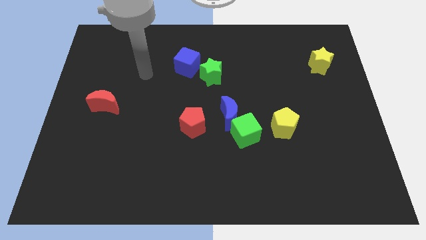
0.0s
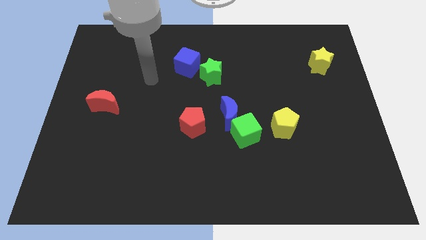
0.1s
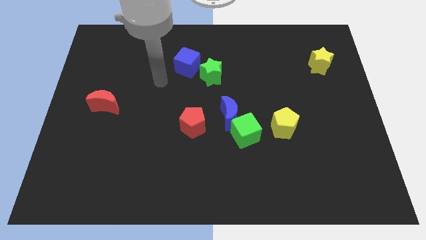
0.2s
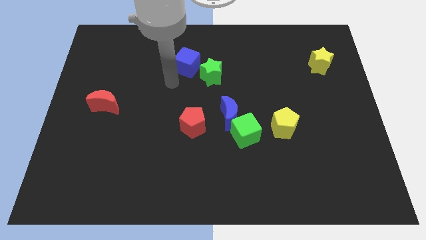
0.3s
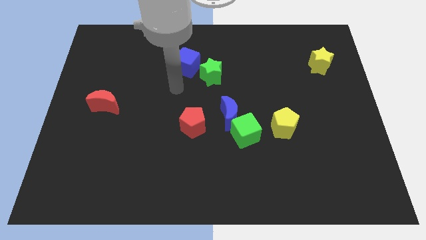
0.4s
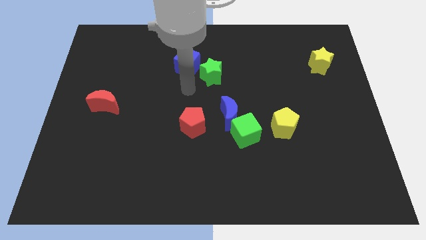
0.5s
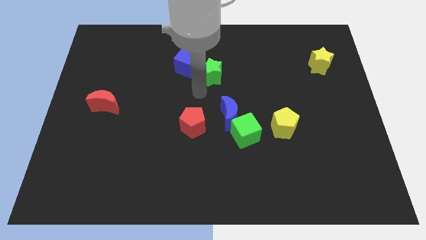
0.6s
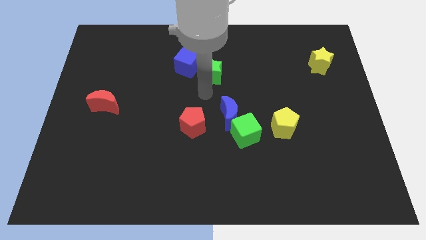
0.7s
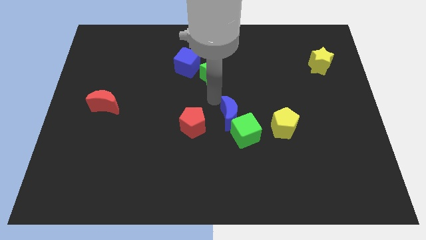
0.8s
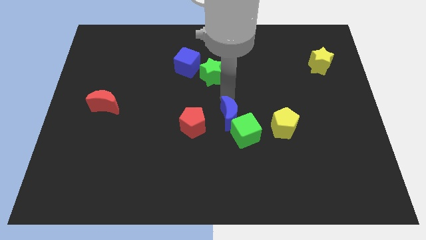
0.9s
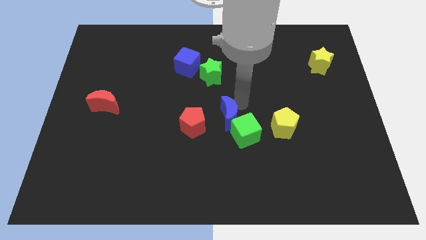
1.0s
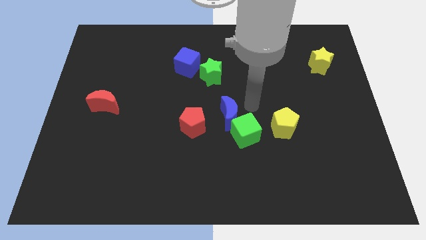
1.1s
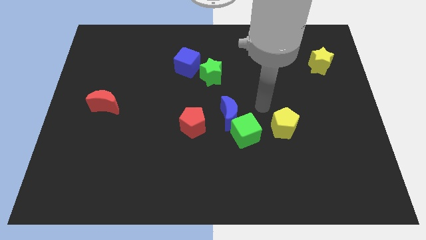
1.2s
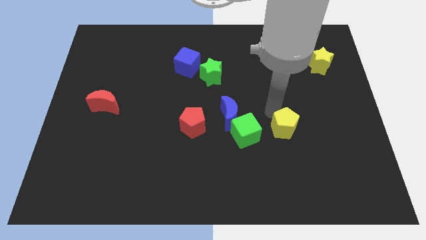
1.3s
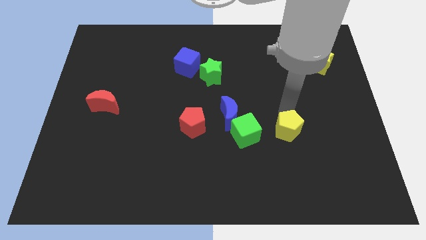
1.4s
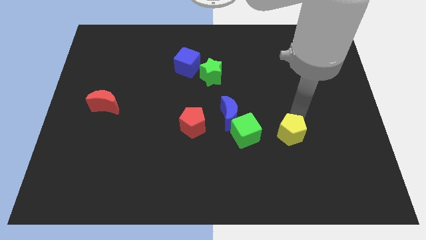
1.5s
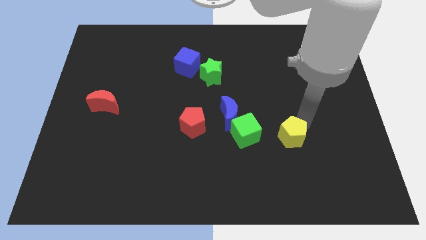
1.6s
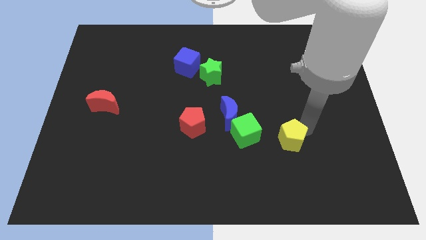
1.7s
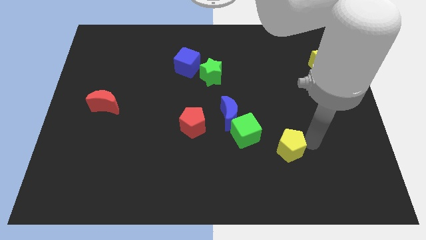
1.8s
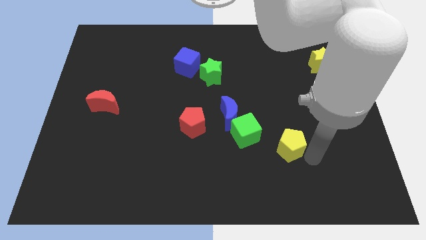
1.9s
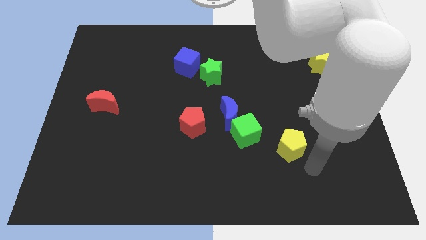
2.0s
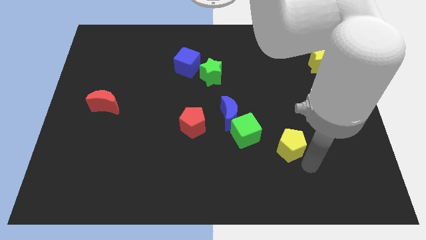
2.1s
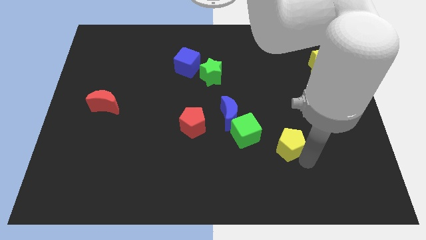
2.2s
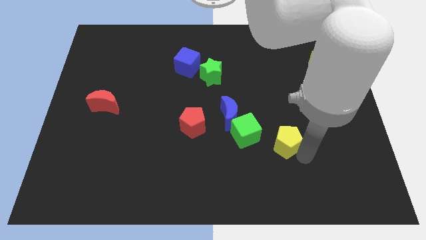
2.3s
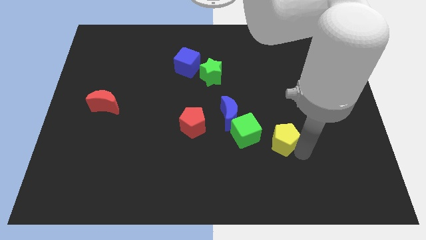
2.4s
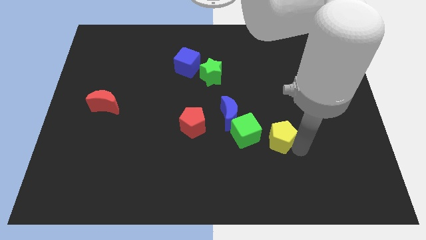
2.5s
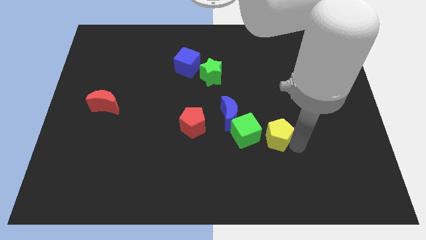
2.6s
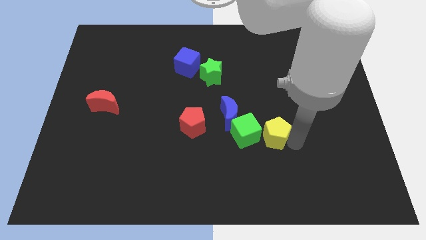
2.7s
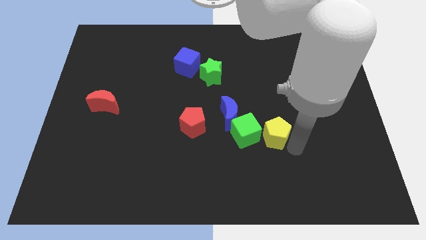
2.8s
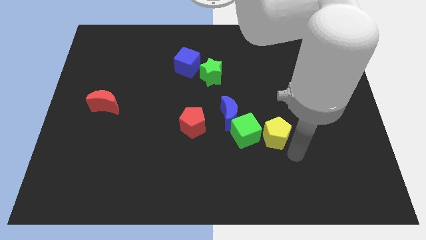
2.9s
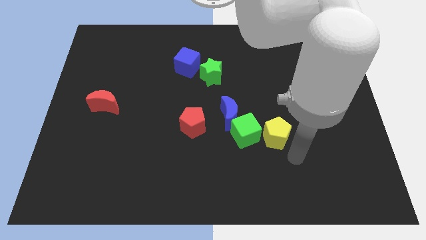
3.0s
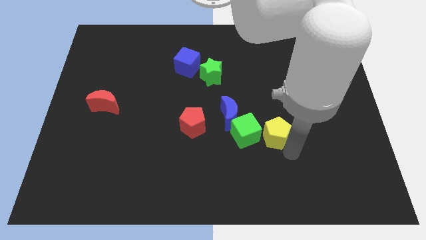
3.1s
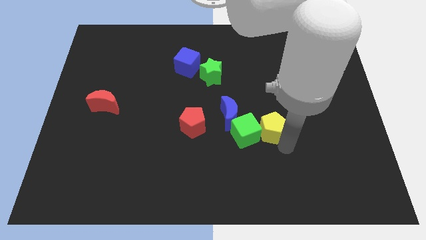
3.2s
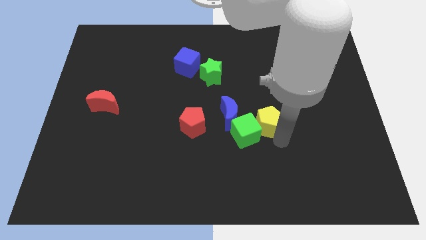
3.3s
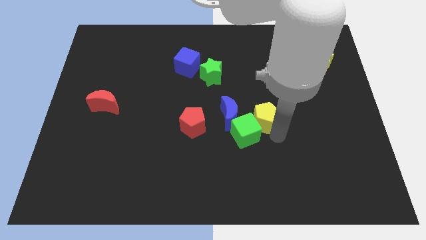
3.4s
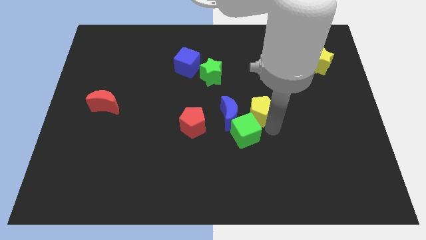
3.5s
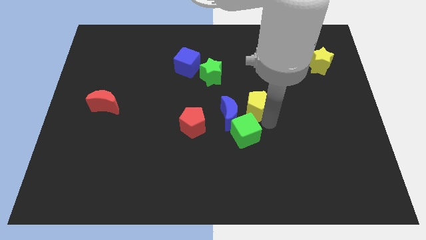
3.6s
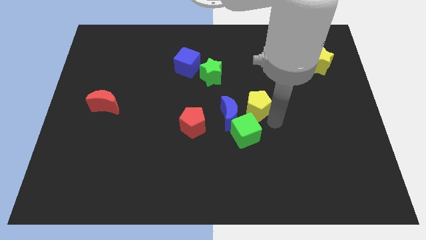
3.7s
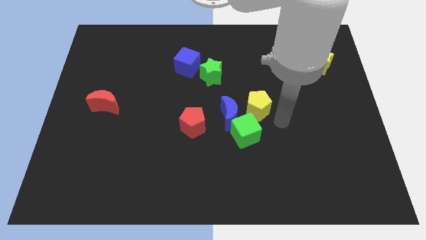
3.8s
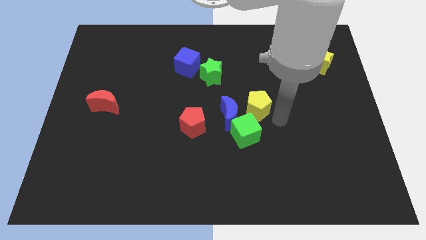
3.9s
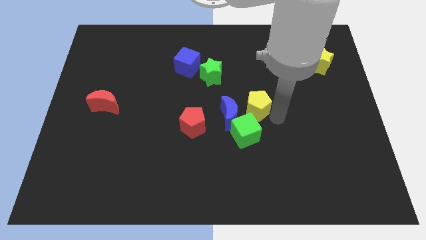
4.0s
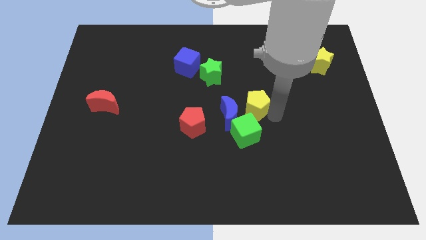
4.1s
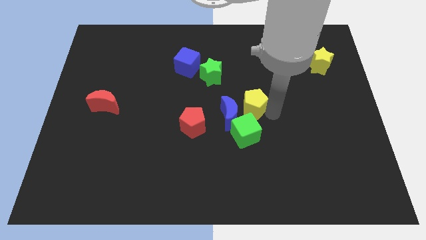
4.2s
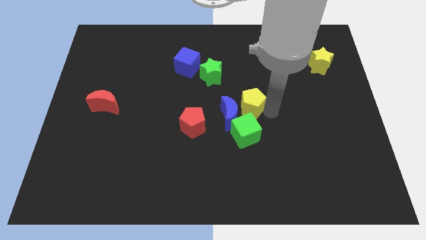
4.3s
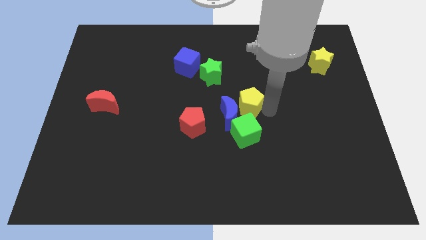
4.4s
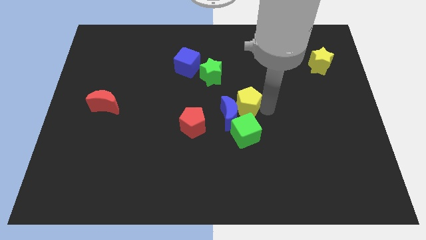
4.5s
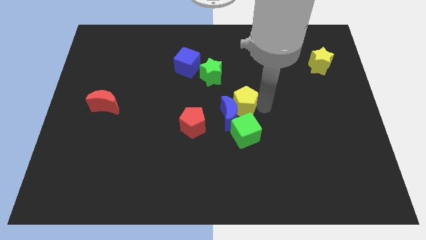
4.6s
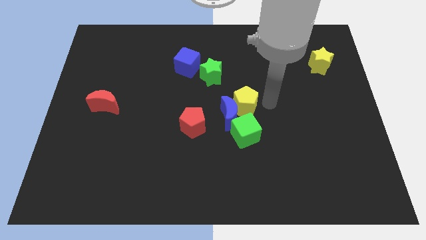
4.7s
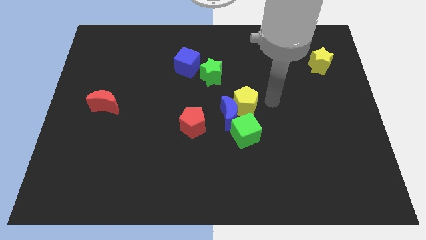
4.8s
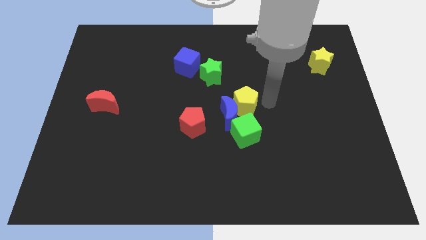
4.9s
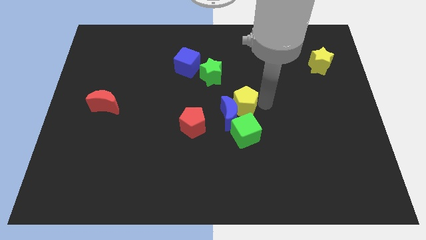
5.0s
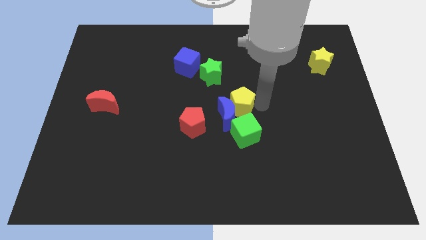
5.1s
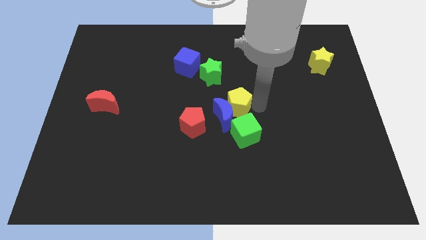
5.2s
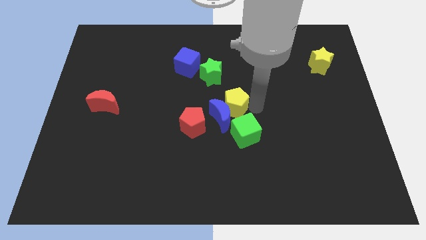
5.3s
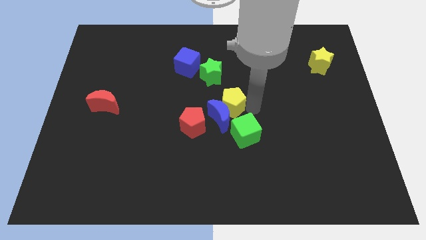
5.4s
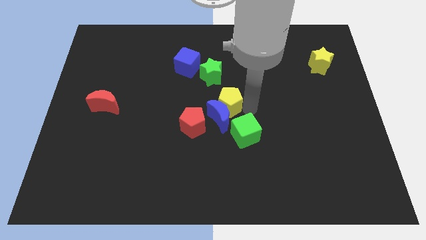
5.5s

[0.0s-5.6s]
put the yellow pentagon to the bottom of the green star

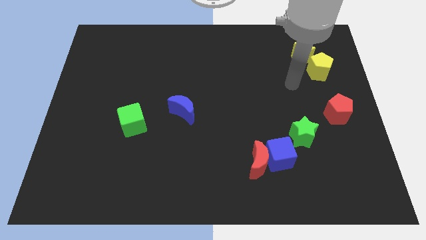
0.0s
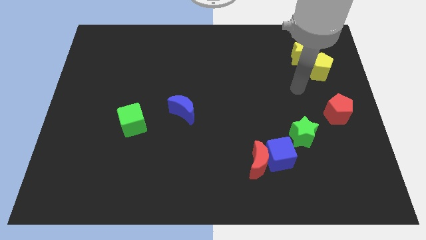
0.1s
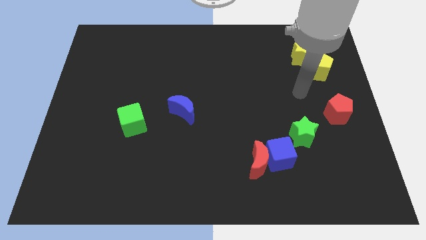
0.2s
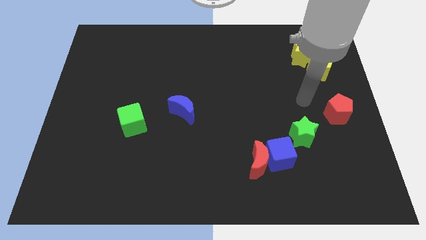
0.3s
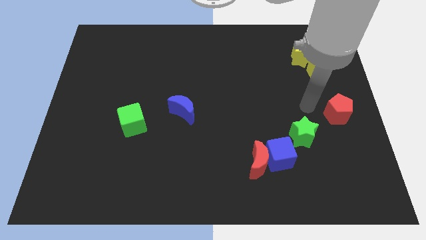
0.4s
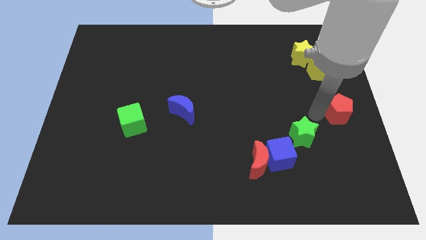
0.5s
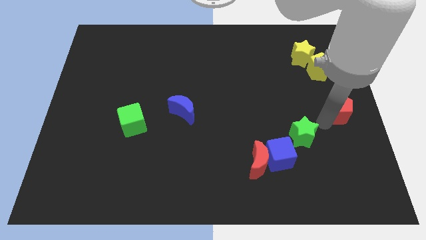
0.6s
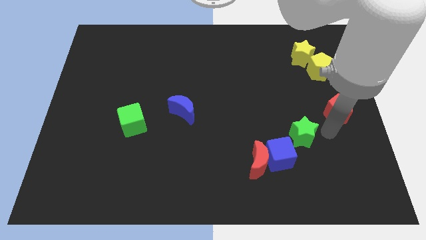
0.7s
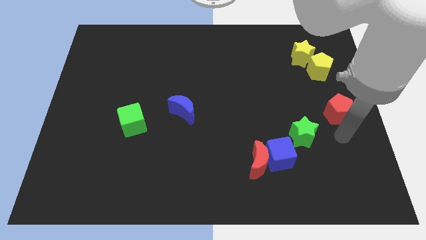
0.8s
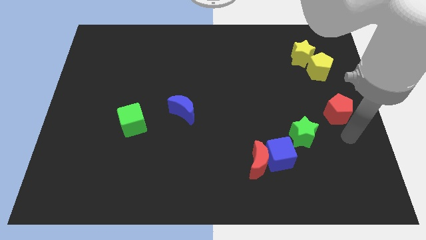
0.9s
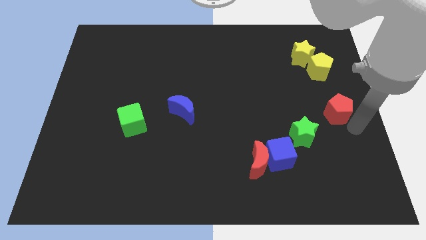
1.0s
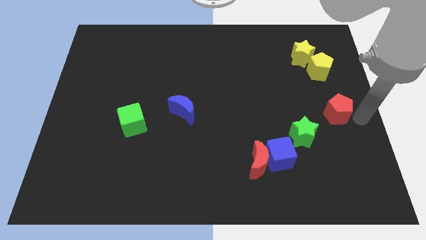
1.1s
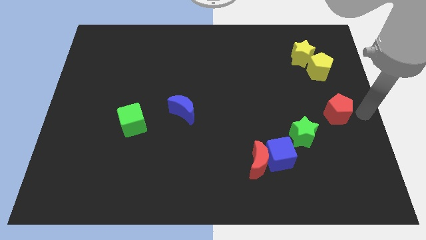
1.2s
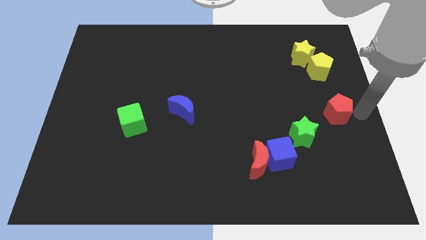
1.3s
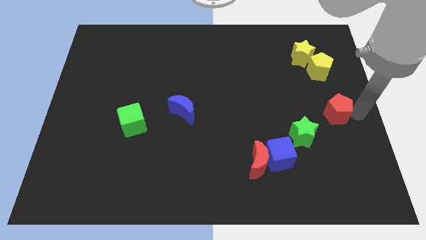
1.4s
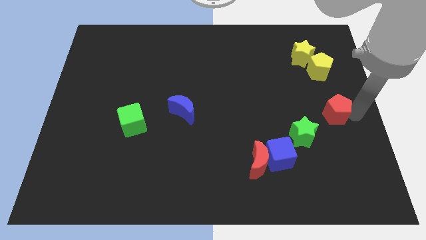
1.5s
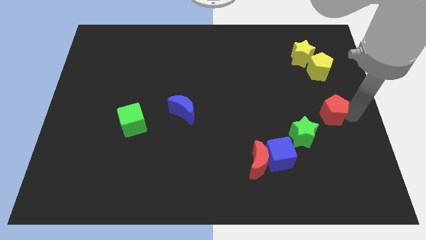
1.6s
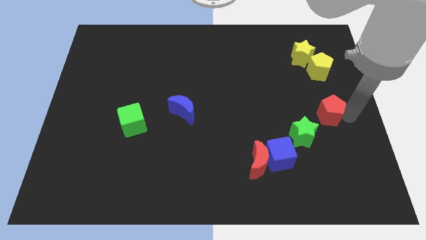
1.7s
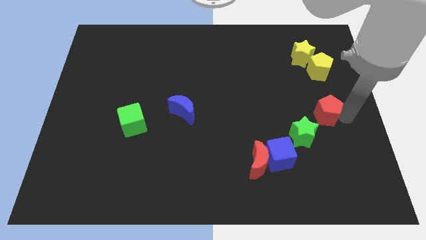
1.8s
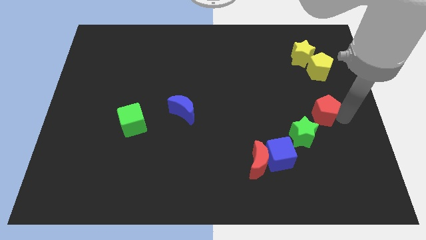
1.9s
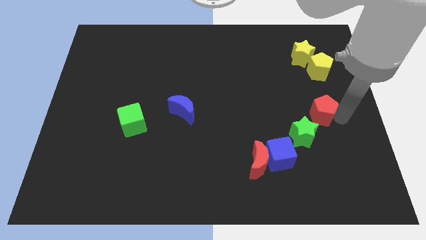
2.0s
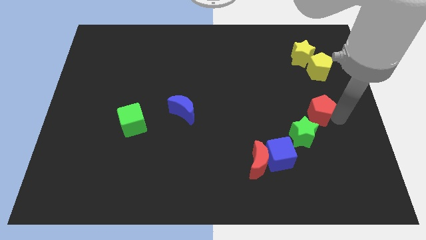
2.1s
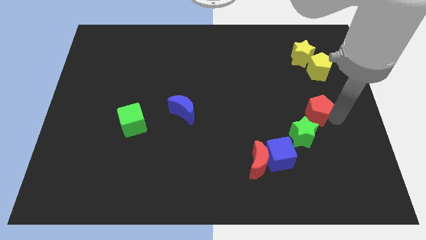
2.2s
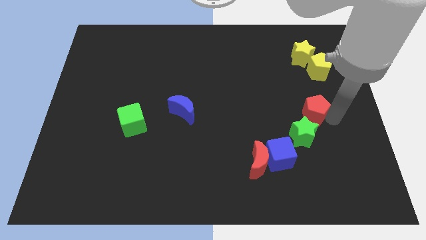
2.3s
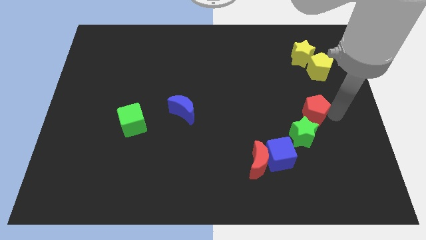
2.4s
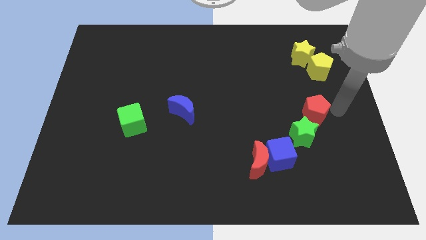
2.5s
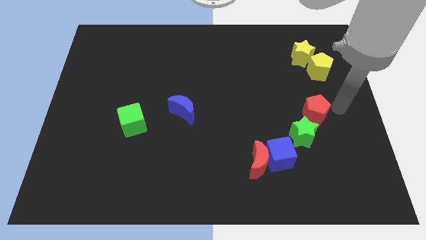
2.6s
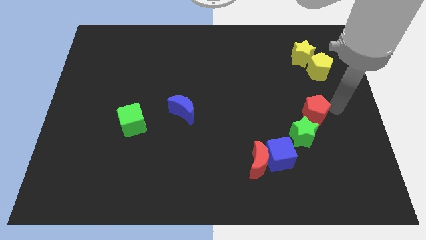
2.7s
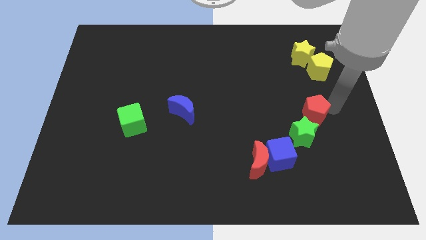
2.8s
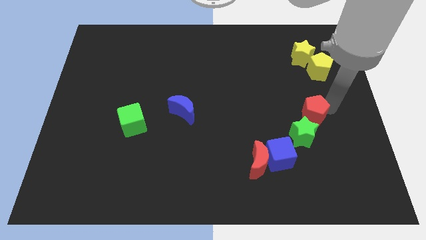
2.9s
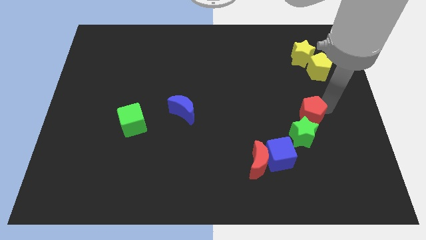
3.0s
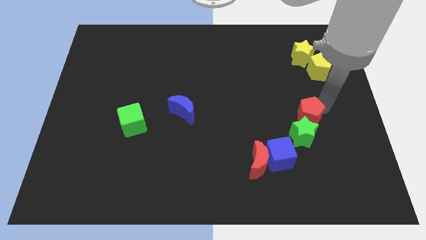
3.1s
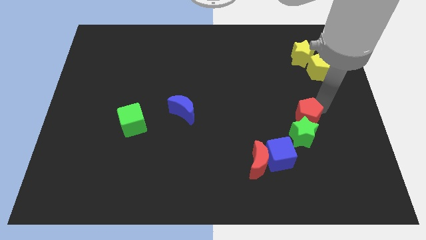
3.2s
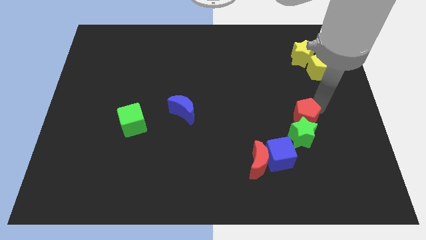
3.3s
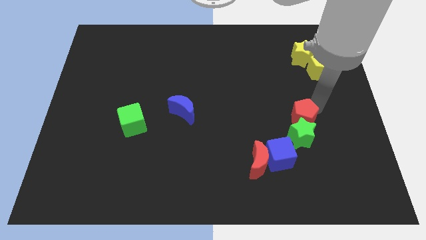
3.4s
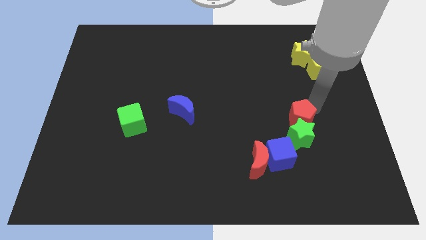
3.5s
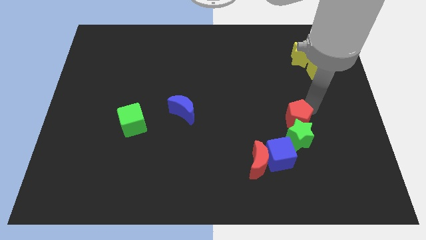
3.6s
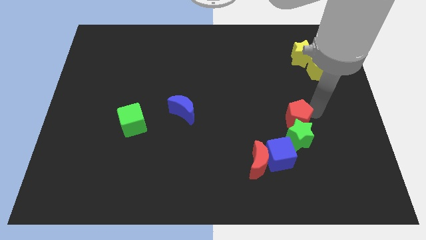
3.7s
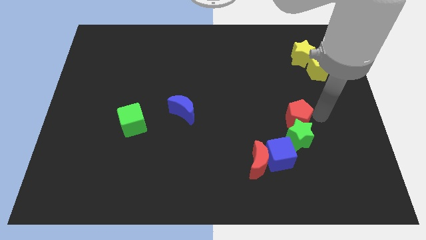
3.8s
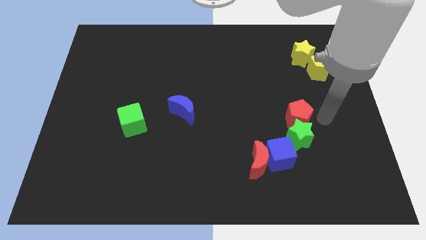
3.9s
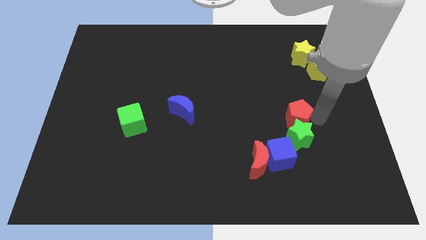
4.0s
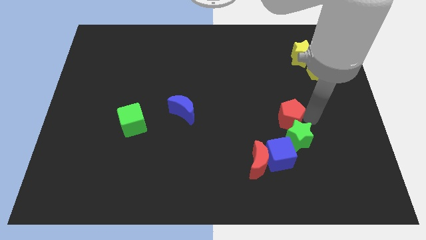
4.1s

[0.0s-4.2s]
push the red pentagon to the top side of the blue cube
